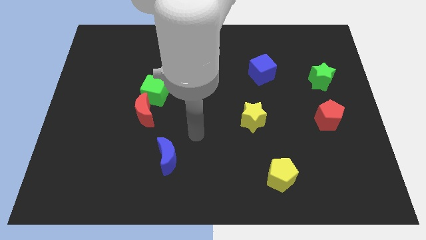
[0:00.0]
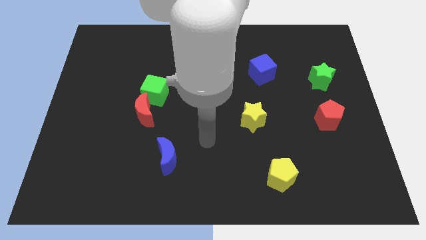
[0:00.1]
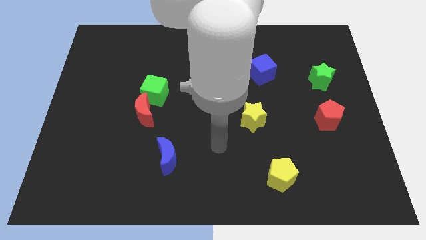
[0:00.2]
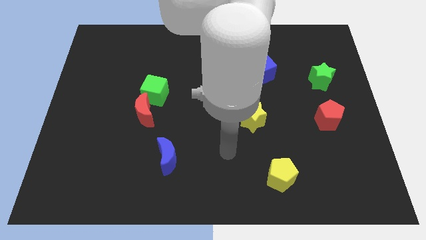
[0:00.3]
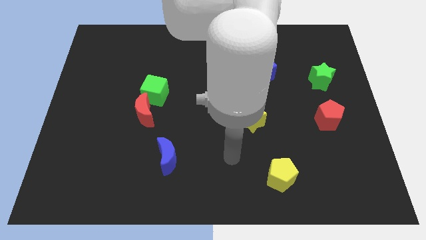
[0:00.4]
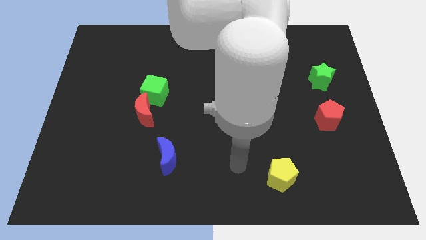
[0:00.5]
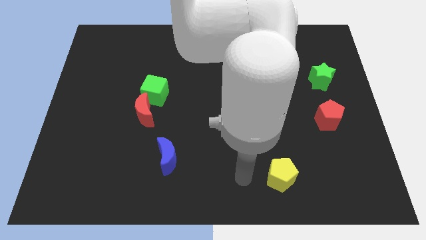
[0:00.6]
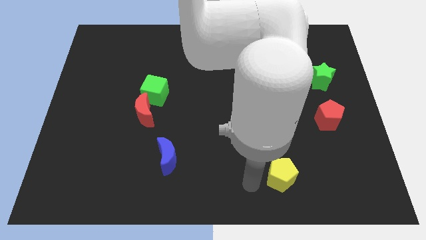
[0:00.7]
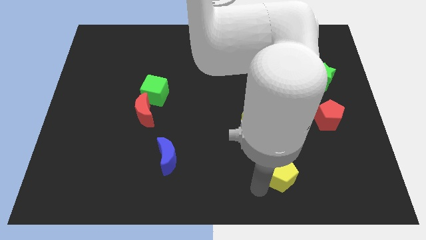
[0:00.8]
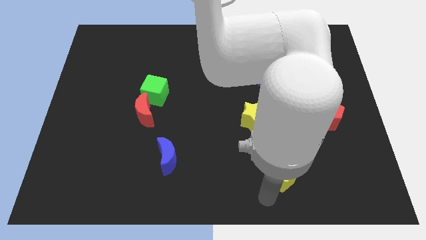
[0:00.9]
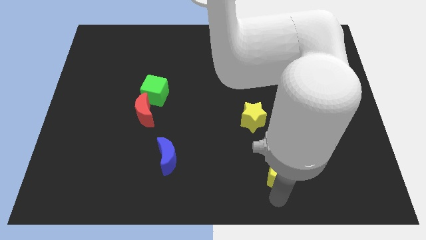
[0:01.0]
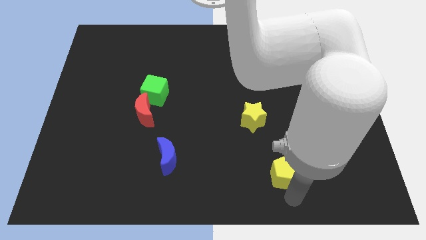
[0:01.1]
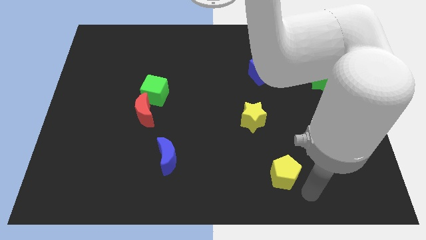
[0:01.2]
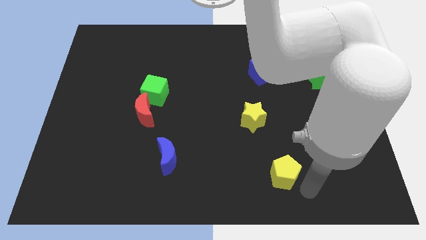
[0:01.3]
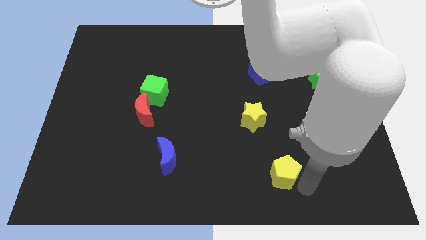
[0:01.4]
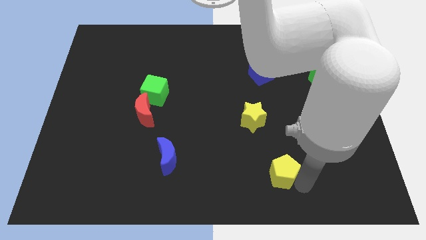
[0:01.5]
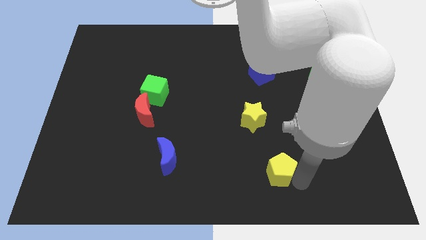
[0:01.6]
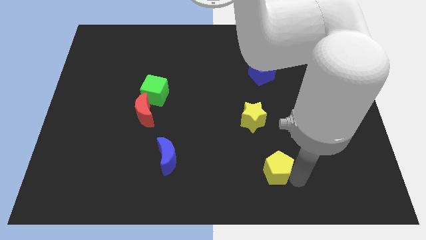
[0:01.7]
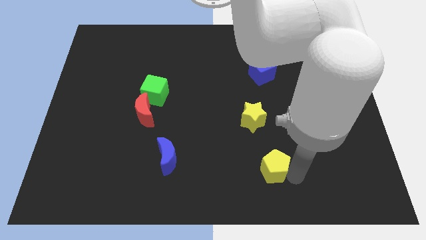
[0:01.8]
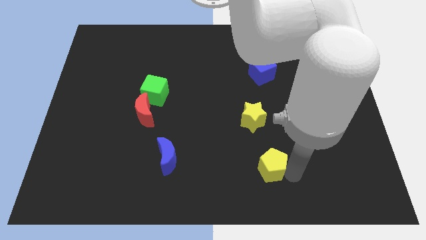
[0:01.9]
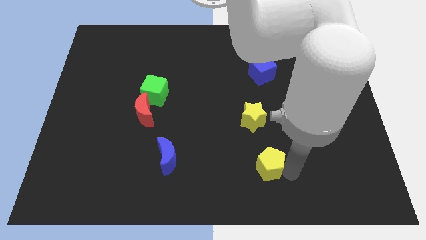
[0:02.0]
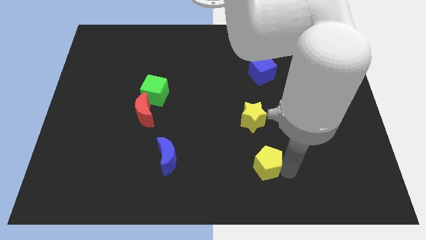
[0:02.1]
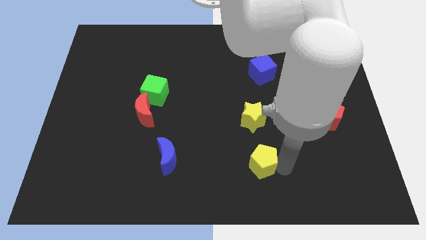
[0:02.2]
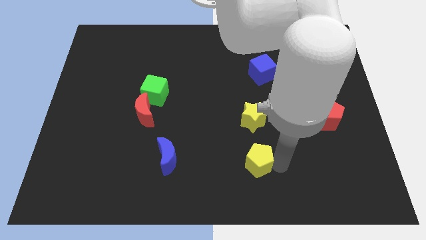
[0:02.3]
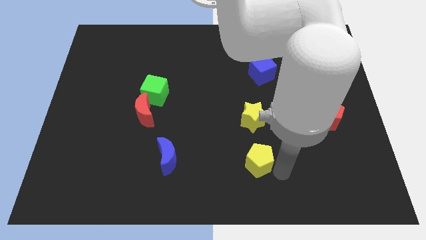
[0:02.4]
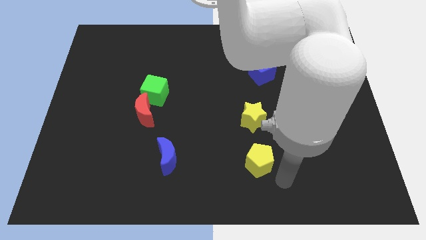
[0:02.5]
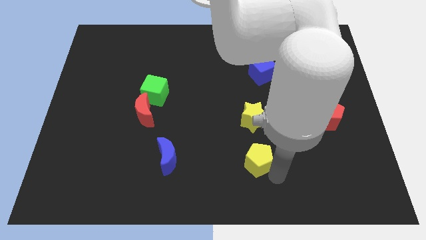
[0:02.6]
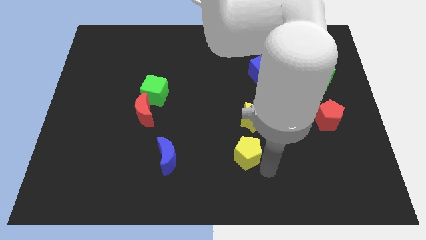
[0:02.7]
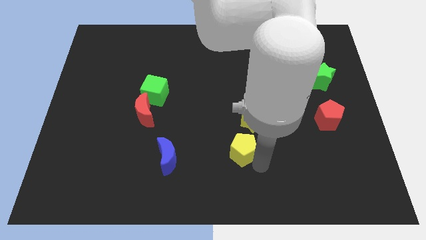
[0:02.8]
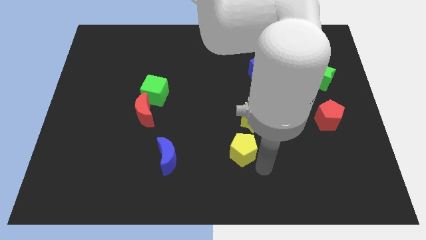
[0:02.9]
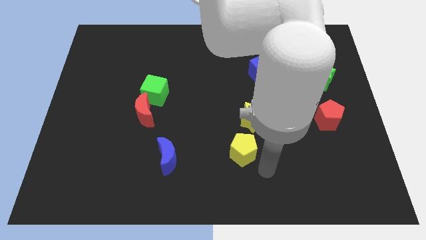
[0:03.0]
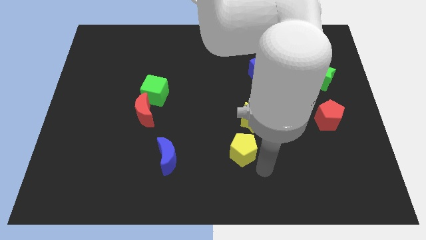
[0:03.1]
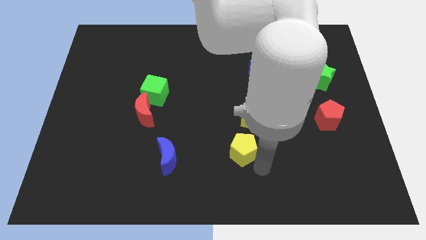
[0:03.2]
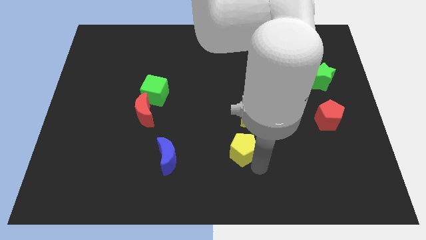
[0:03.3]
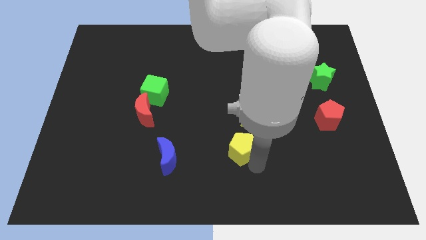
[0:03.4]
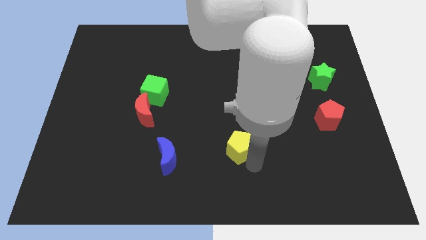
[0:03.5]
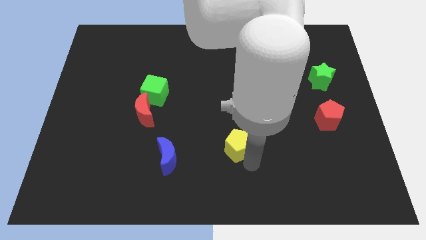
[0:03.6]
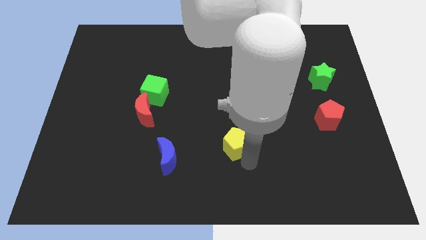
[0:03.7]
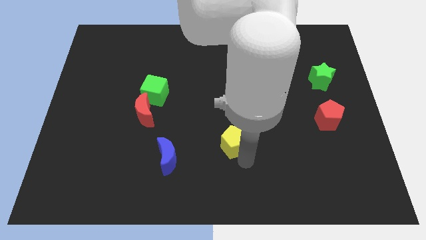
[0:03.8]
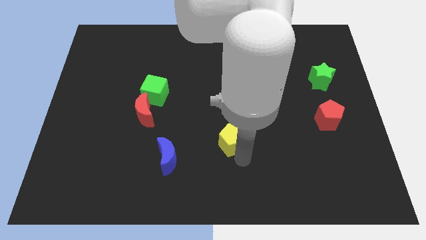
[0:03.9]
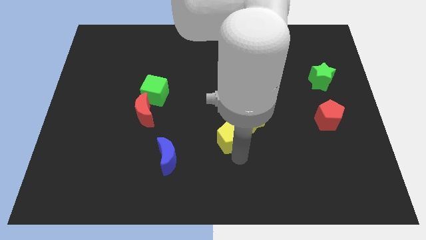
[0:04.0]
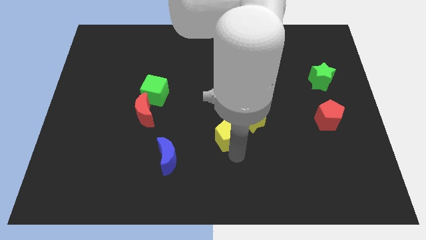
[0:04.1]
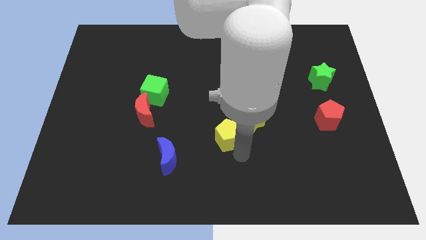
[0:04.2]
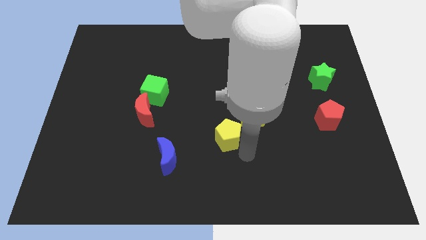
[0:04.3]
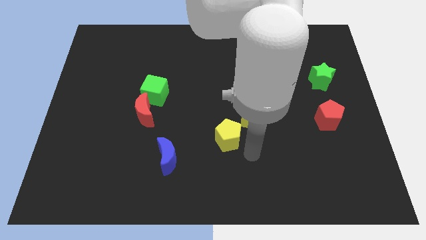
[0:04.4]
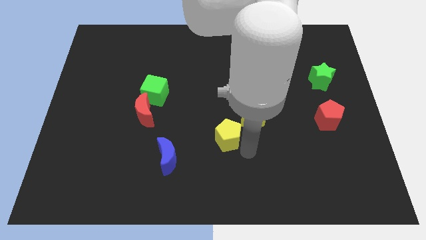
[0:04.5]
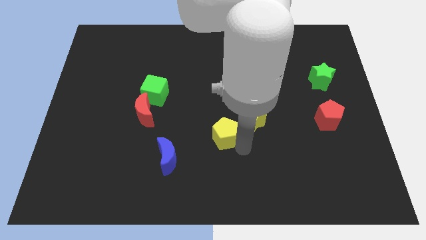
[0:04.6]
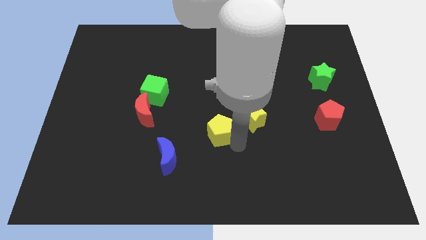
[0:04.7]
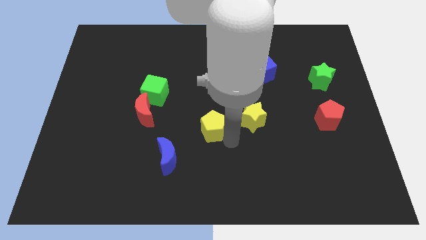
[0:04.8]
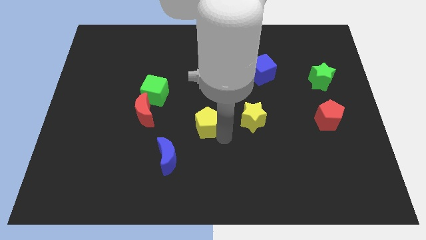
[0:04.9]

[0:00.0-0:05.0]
push the yellow pentagon upwards and left diagonally

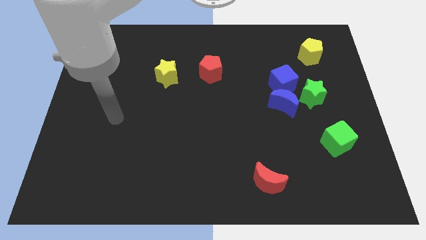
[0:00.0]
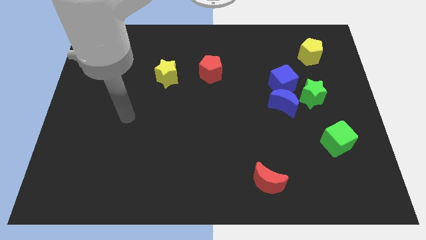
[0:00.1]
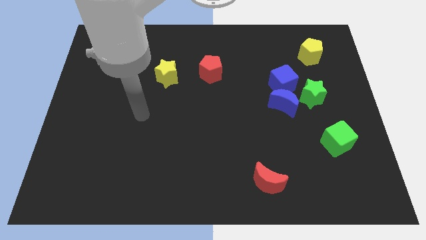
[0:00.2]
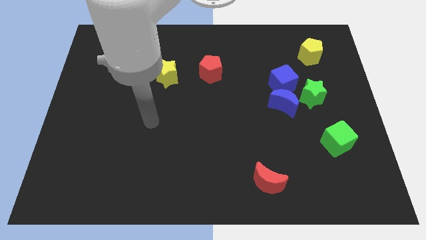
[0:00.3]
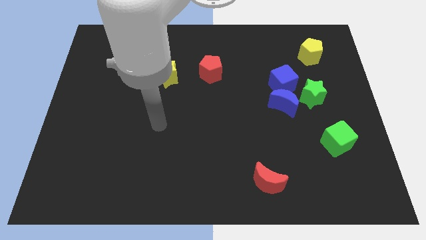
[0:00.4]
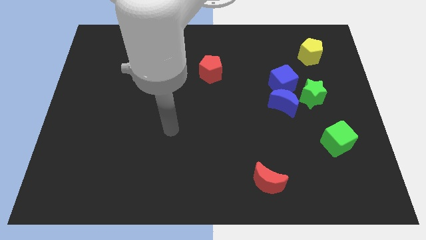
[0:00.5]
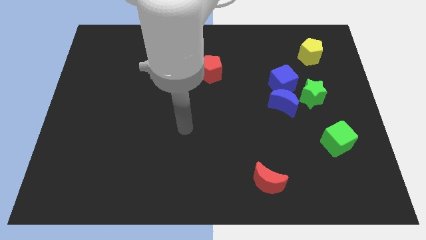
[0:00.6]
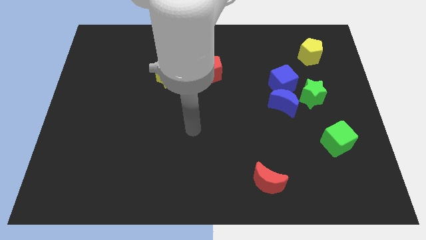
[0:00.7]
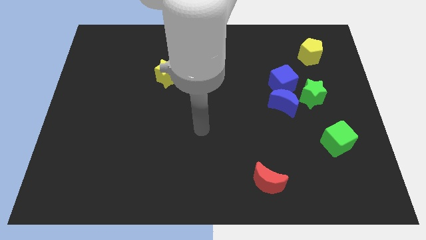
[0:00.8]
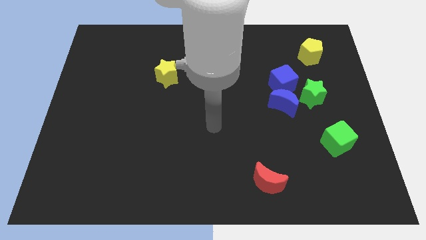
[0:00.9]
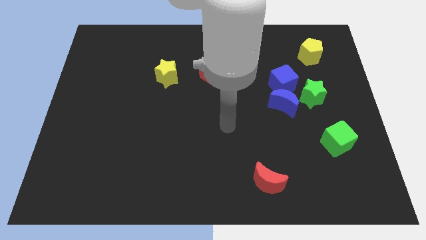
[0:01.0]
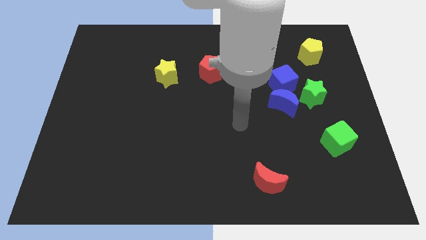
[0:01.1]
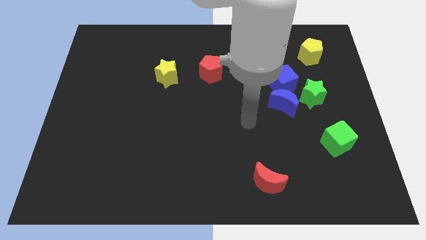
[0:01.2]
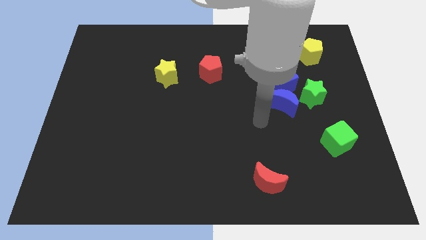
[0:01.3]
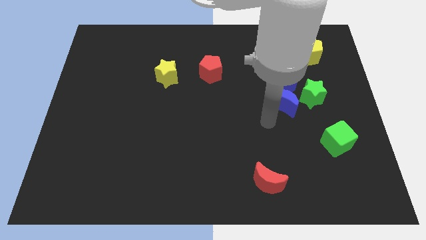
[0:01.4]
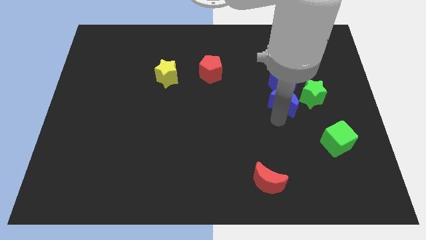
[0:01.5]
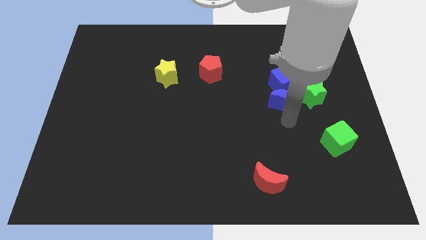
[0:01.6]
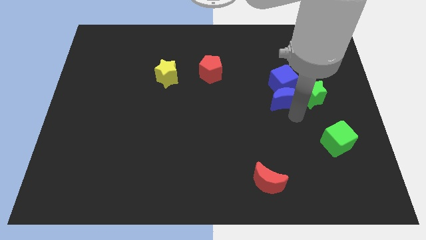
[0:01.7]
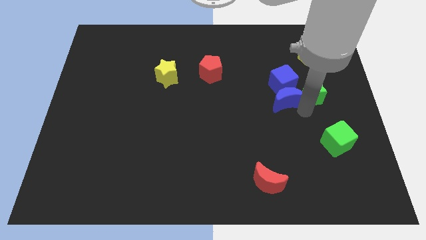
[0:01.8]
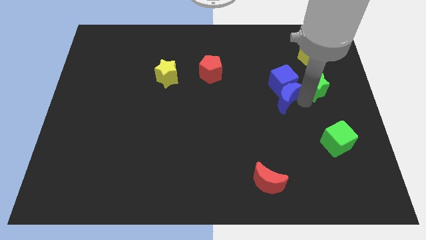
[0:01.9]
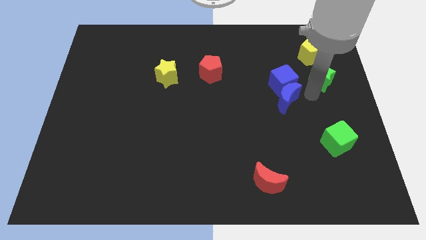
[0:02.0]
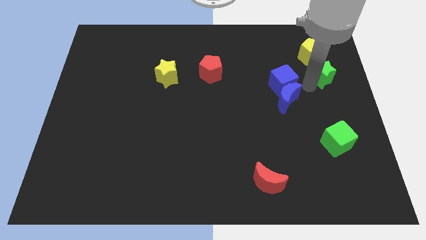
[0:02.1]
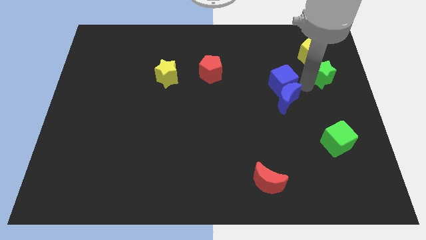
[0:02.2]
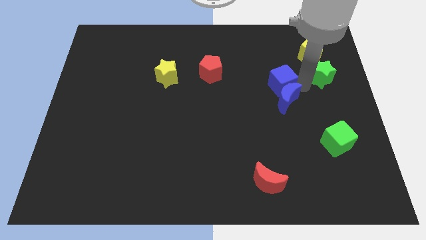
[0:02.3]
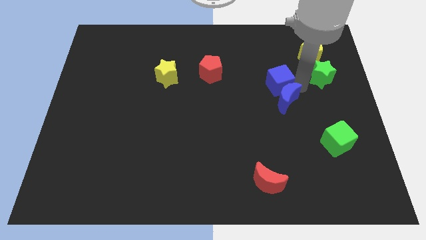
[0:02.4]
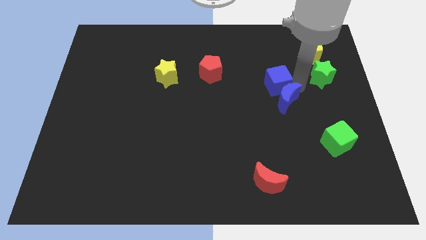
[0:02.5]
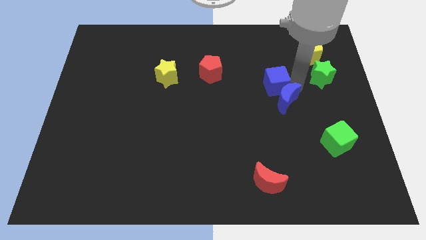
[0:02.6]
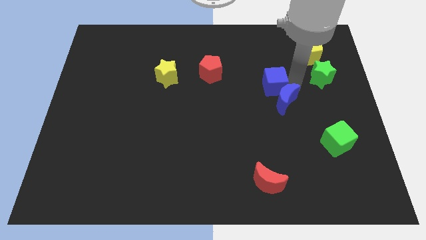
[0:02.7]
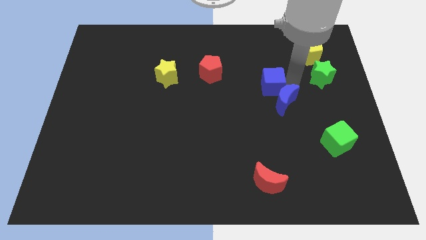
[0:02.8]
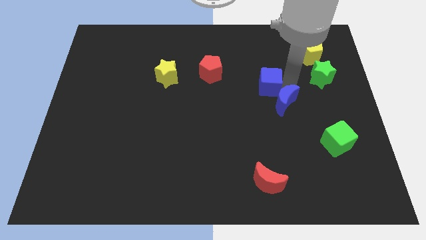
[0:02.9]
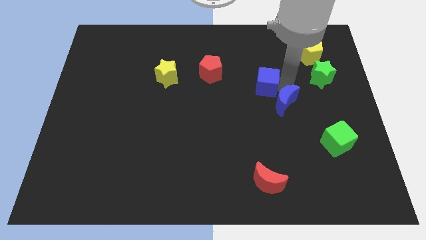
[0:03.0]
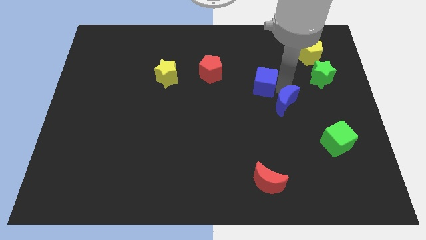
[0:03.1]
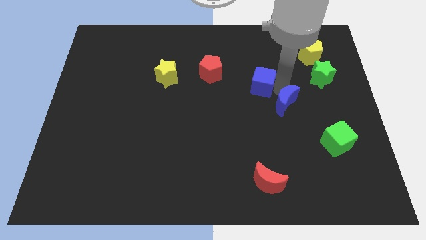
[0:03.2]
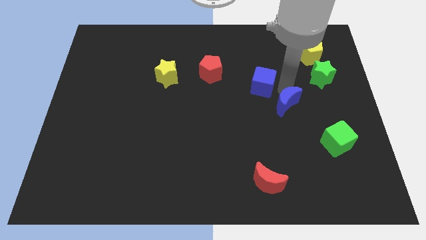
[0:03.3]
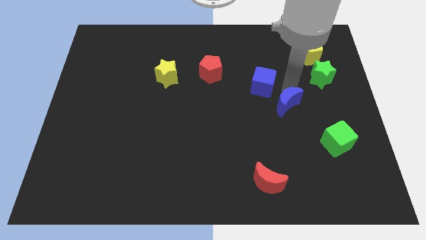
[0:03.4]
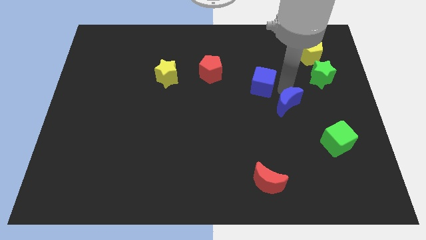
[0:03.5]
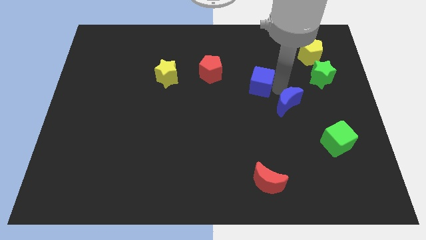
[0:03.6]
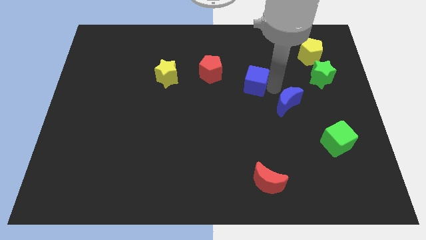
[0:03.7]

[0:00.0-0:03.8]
slightly slide the blue cube to the left
